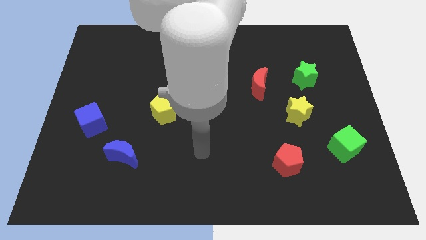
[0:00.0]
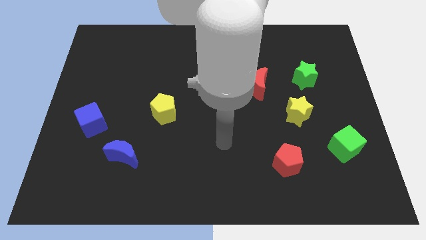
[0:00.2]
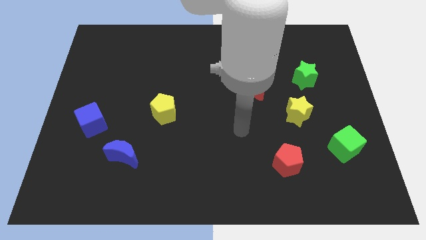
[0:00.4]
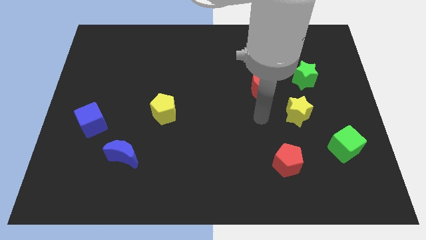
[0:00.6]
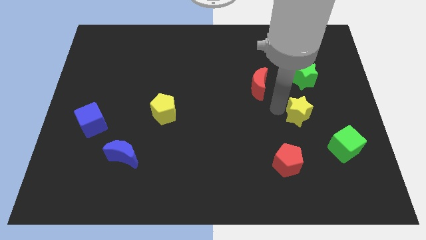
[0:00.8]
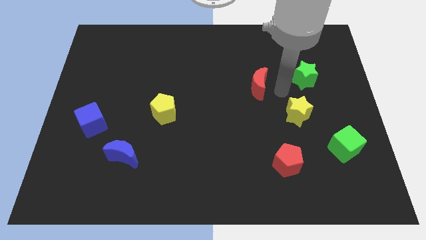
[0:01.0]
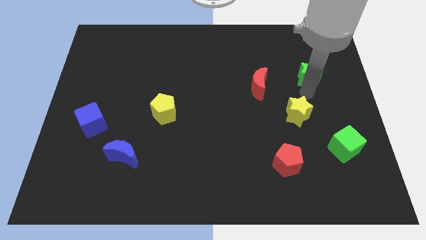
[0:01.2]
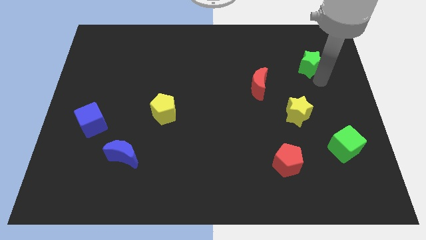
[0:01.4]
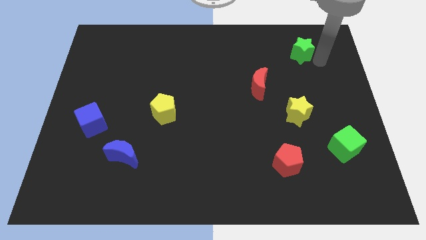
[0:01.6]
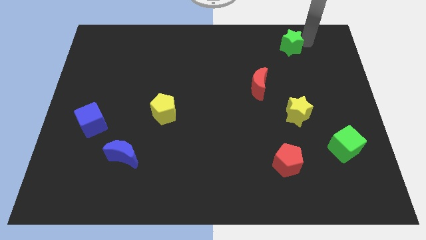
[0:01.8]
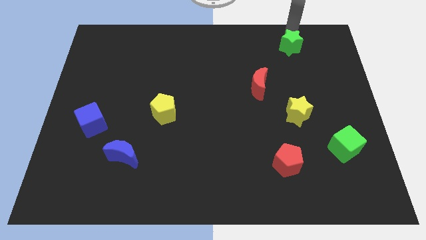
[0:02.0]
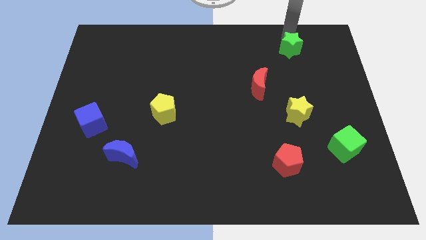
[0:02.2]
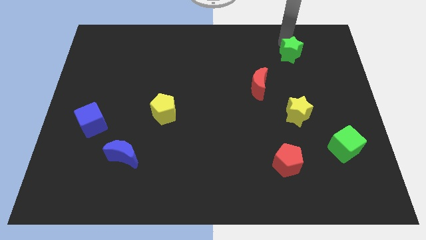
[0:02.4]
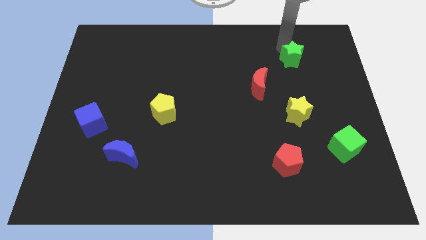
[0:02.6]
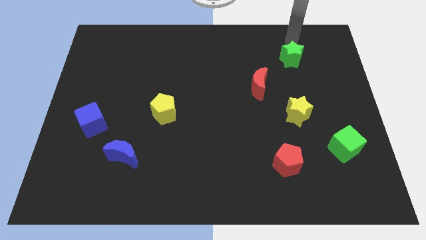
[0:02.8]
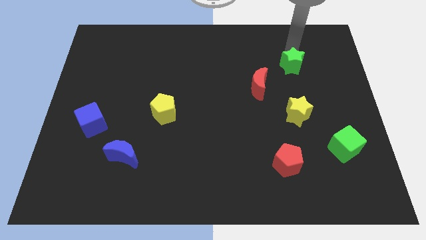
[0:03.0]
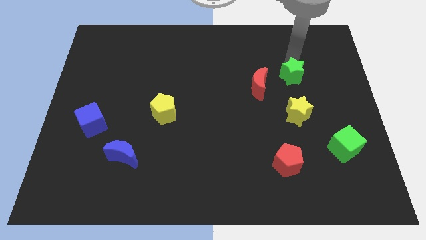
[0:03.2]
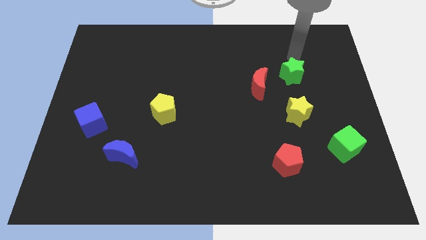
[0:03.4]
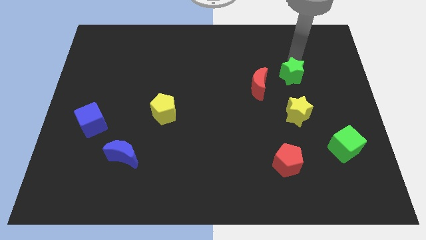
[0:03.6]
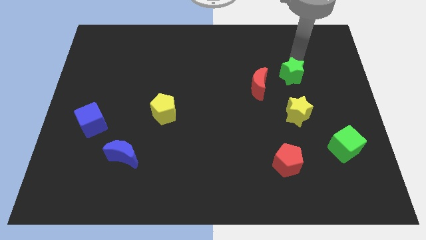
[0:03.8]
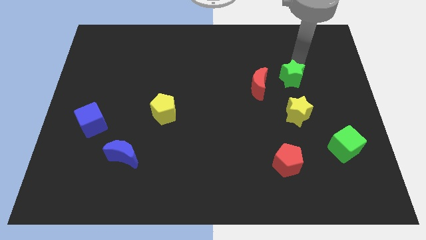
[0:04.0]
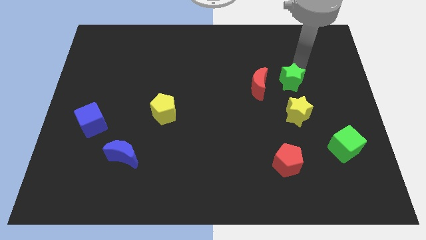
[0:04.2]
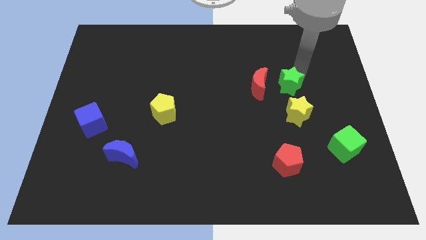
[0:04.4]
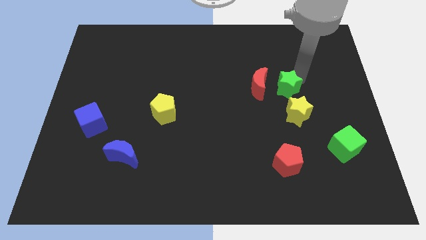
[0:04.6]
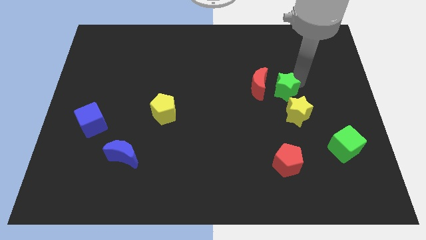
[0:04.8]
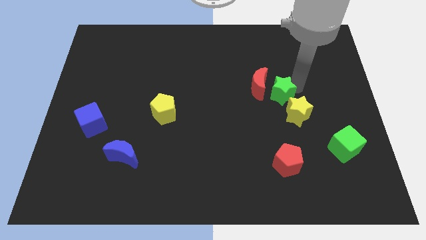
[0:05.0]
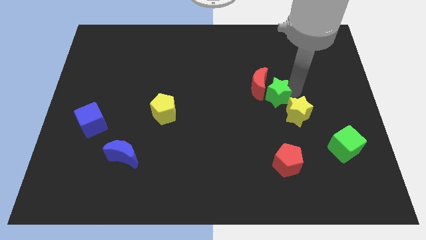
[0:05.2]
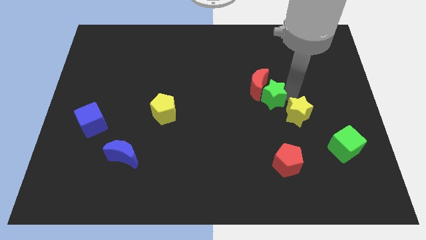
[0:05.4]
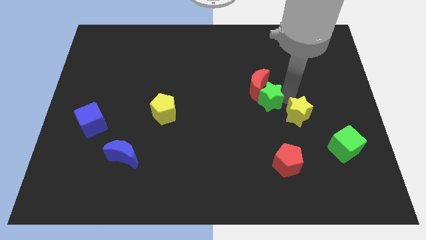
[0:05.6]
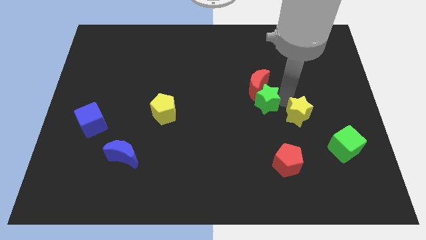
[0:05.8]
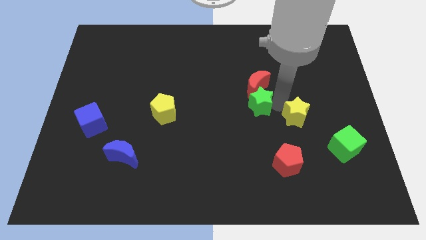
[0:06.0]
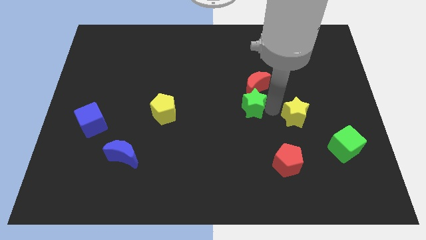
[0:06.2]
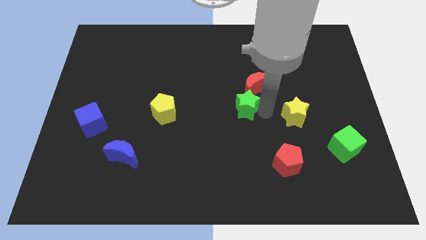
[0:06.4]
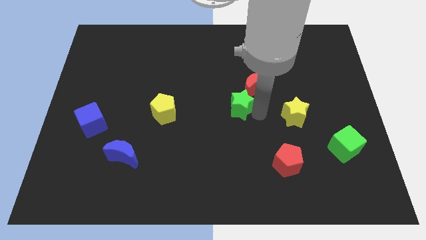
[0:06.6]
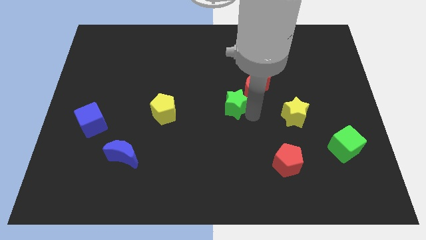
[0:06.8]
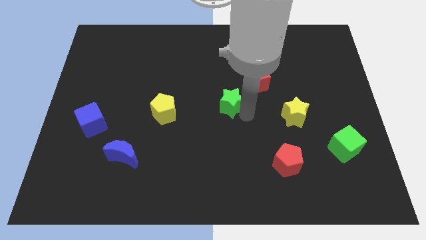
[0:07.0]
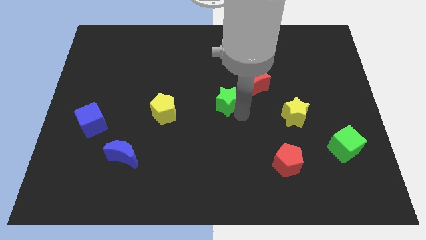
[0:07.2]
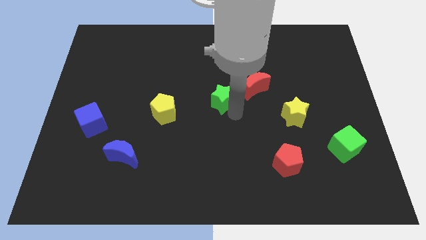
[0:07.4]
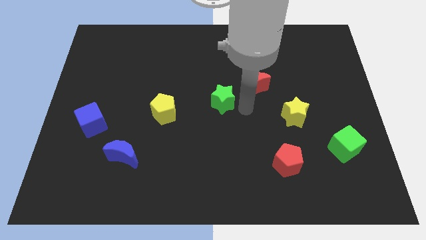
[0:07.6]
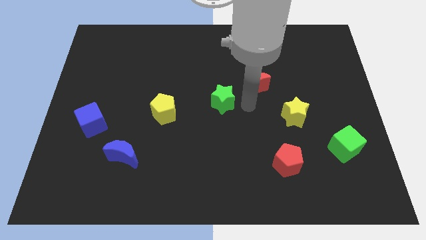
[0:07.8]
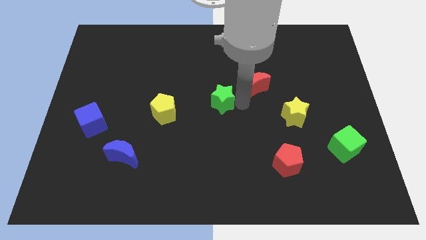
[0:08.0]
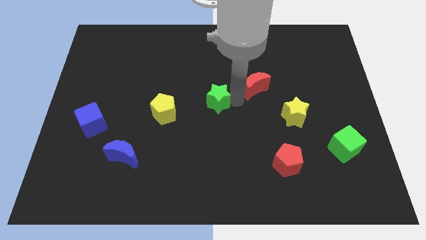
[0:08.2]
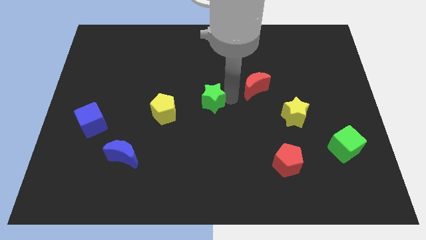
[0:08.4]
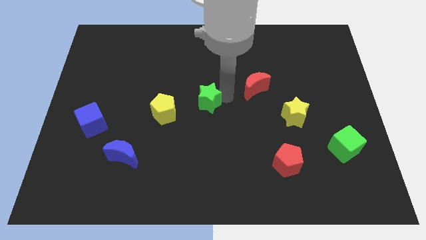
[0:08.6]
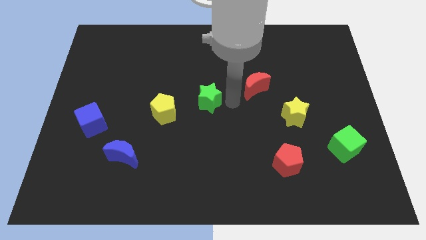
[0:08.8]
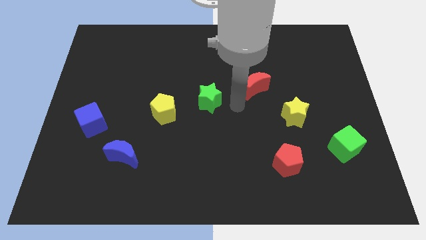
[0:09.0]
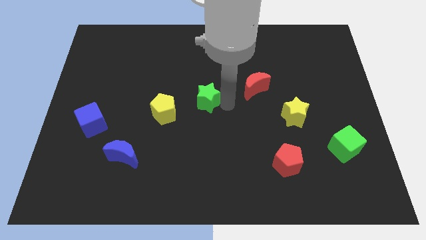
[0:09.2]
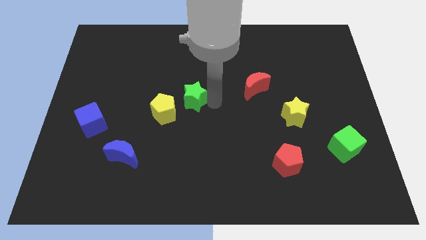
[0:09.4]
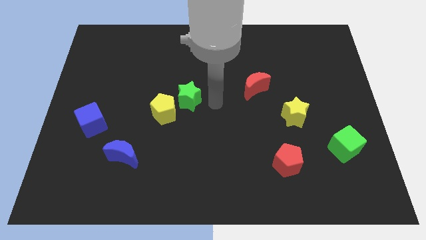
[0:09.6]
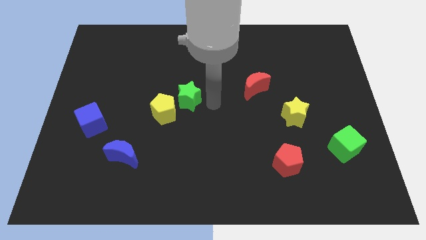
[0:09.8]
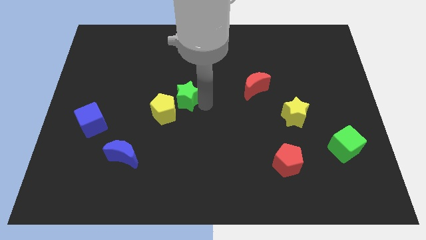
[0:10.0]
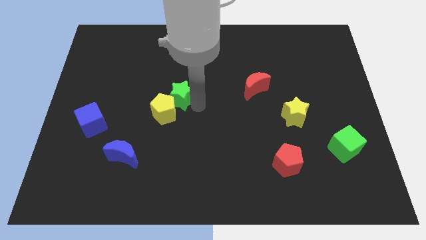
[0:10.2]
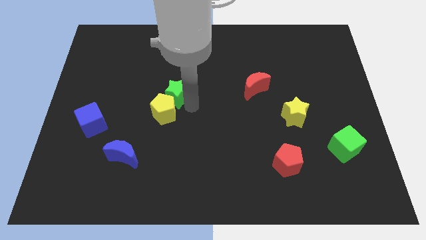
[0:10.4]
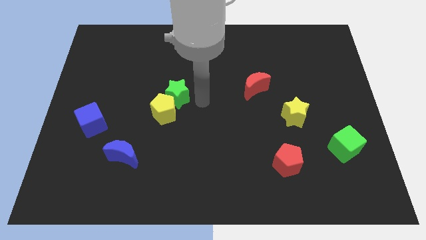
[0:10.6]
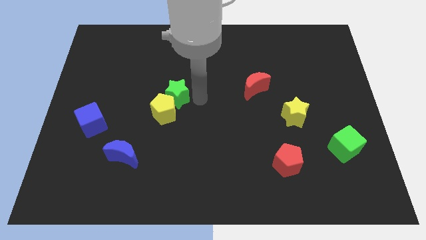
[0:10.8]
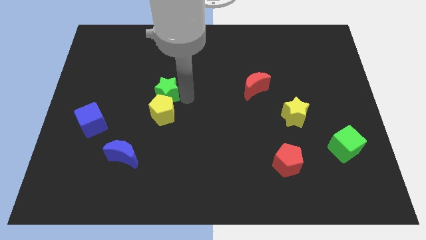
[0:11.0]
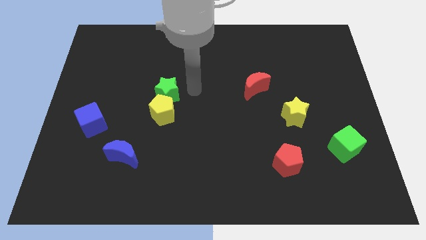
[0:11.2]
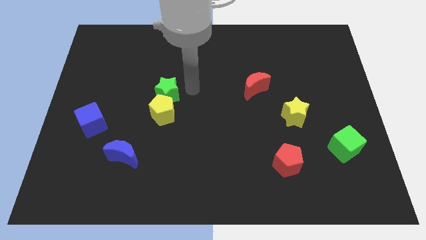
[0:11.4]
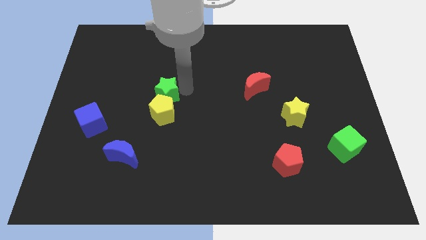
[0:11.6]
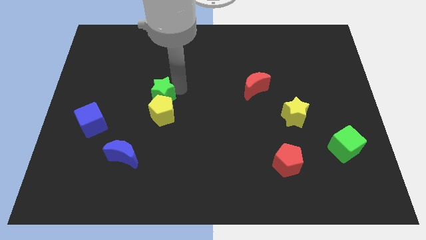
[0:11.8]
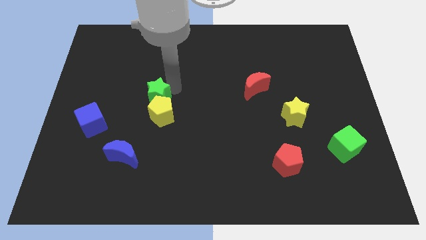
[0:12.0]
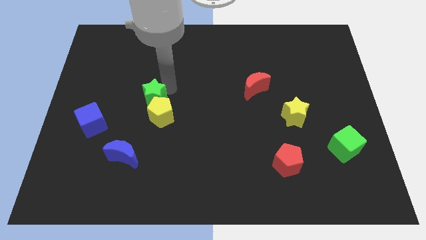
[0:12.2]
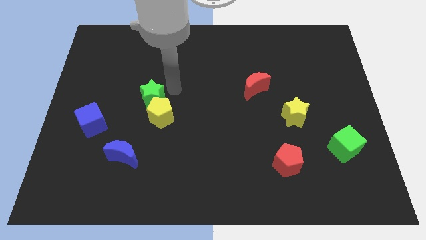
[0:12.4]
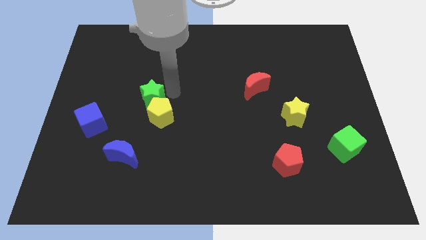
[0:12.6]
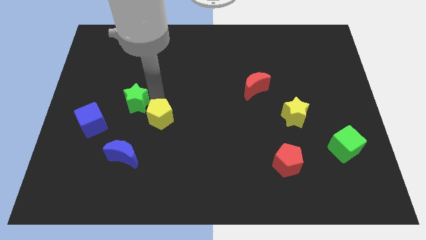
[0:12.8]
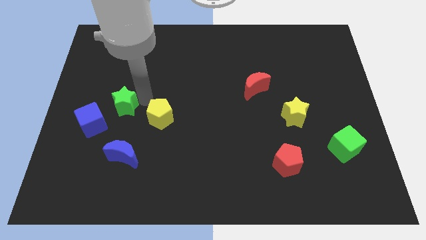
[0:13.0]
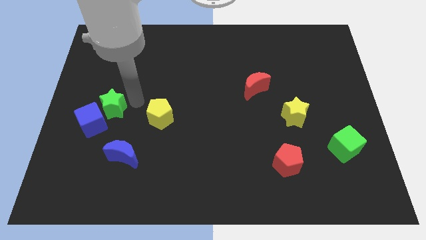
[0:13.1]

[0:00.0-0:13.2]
move the green star next to the blue cube
